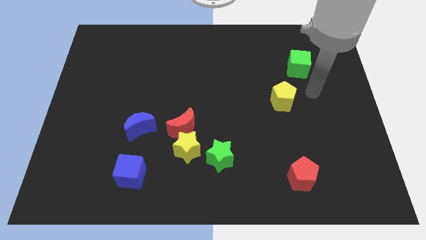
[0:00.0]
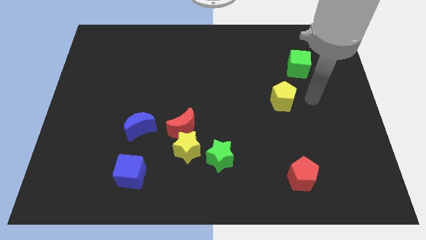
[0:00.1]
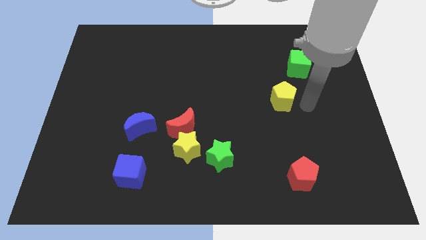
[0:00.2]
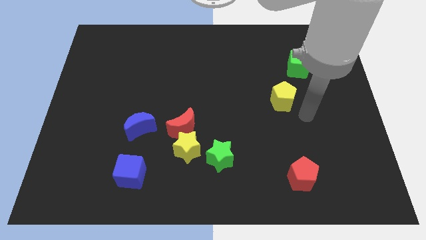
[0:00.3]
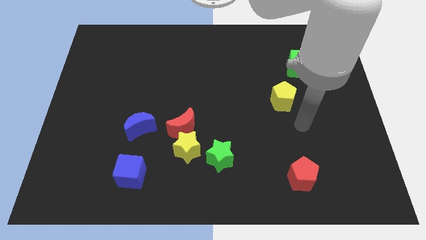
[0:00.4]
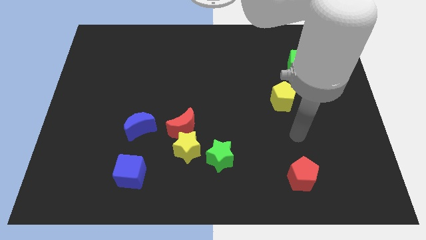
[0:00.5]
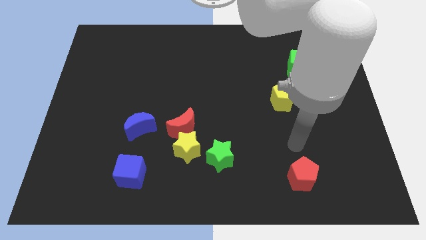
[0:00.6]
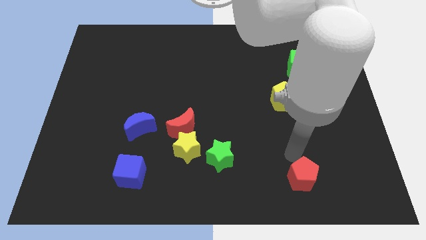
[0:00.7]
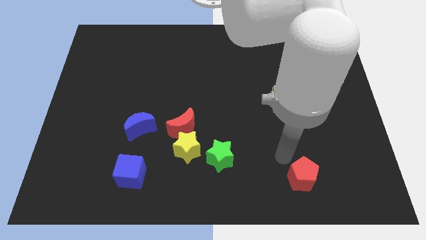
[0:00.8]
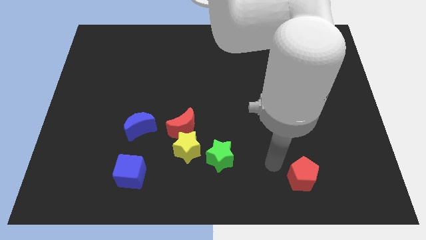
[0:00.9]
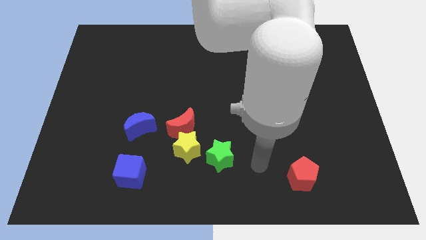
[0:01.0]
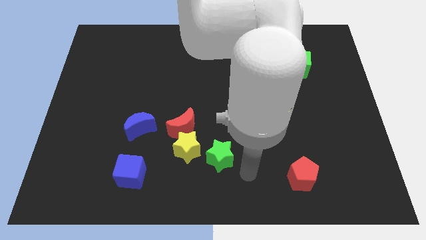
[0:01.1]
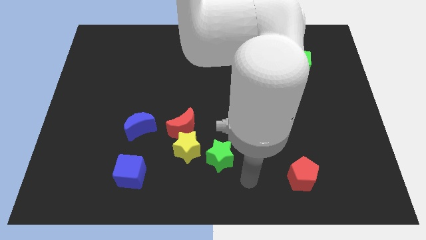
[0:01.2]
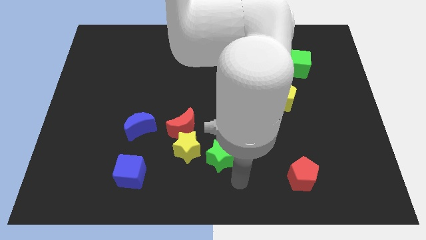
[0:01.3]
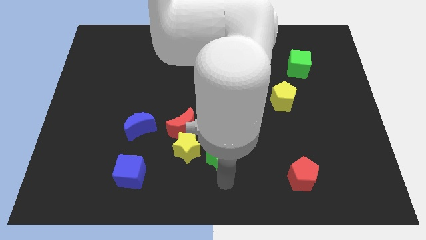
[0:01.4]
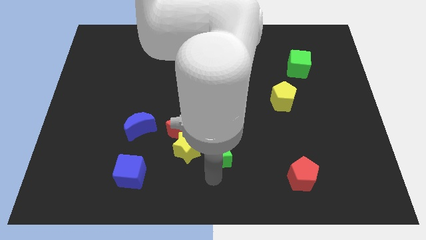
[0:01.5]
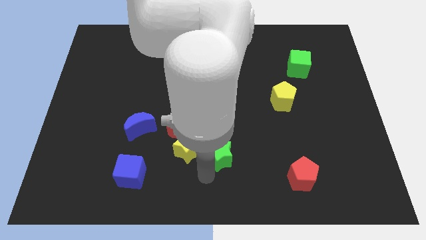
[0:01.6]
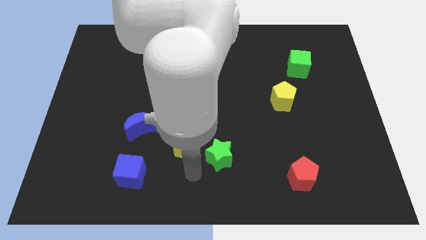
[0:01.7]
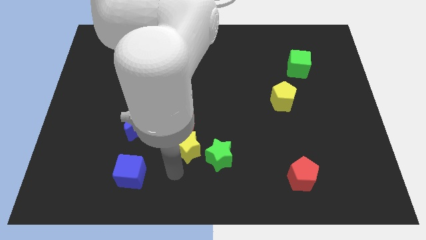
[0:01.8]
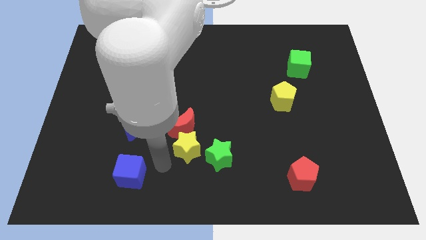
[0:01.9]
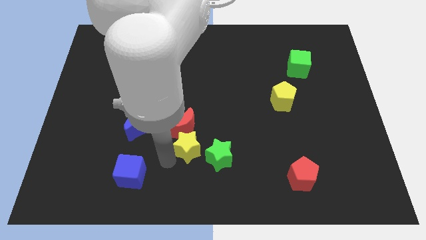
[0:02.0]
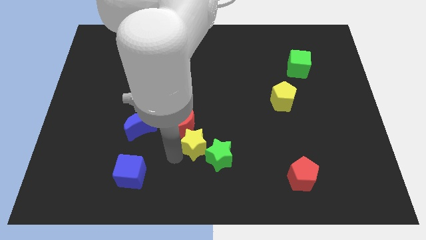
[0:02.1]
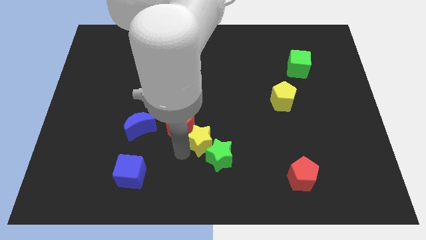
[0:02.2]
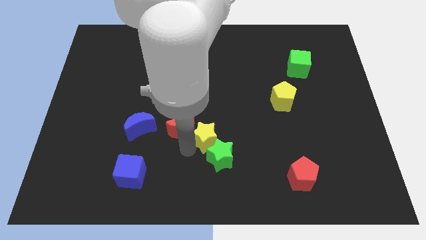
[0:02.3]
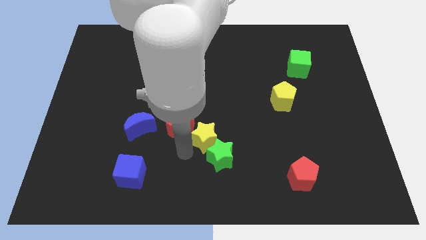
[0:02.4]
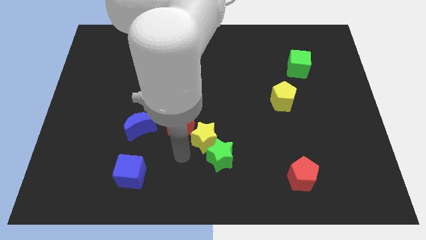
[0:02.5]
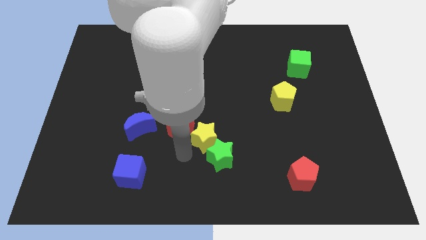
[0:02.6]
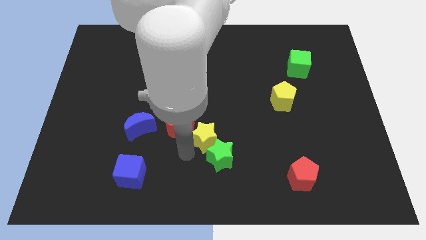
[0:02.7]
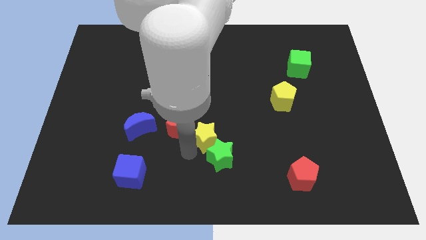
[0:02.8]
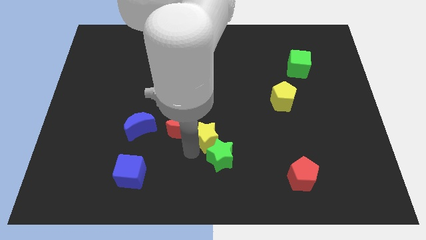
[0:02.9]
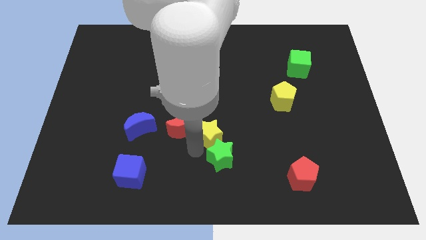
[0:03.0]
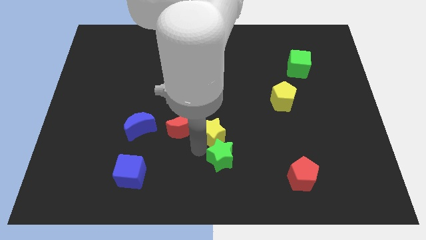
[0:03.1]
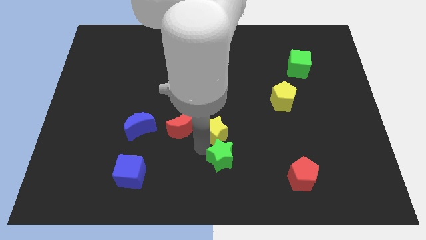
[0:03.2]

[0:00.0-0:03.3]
move the yellow star upwards and right slightly

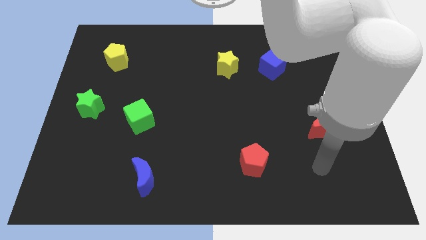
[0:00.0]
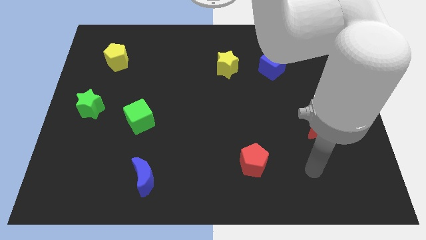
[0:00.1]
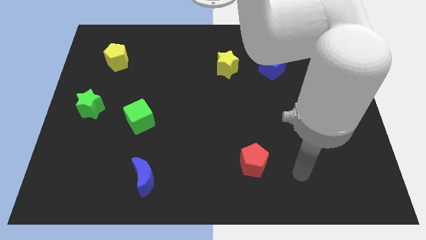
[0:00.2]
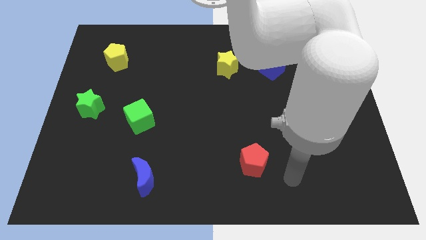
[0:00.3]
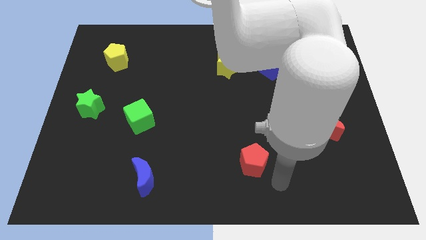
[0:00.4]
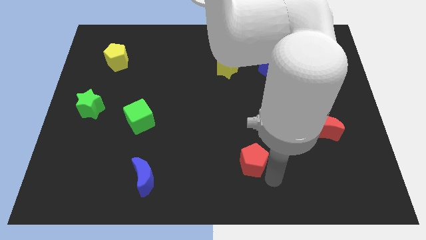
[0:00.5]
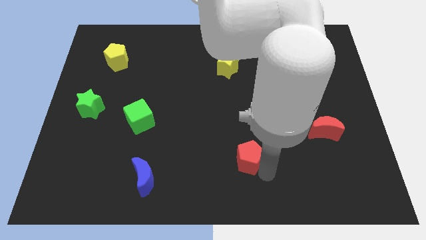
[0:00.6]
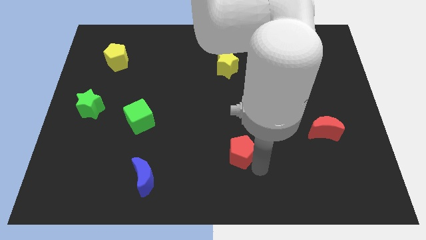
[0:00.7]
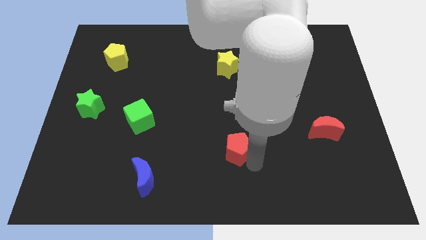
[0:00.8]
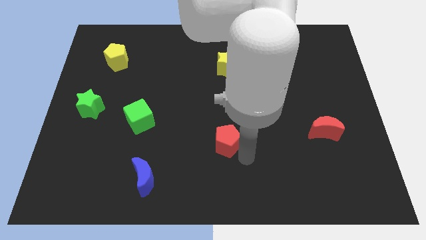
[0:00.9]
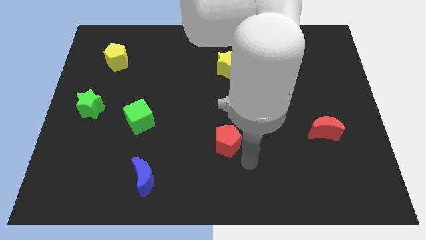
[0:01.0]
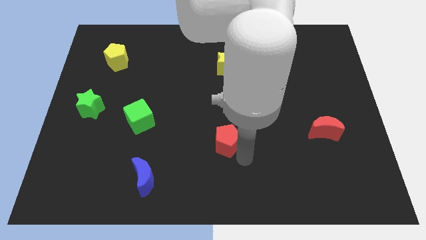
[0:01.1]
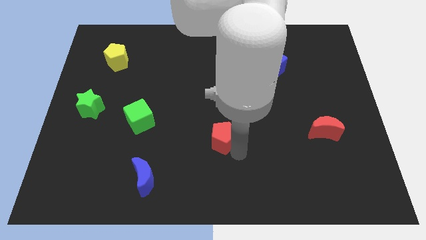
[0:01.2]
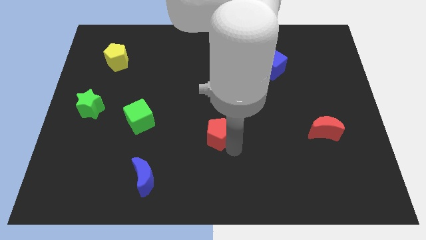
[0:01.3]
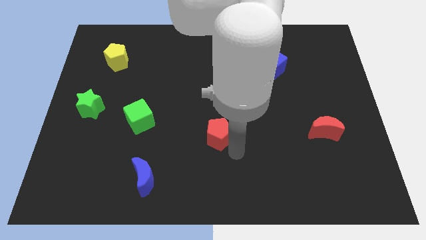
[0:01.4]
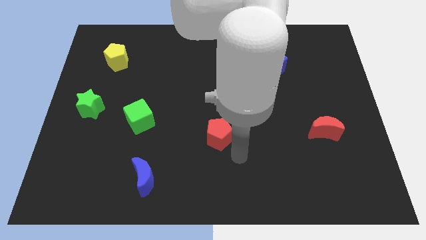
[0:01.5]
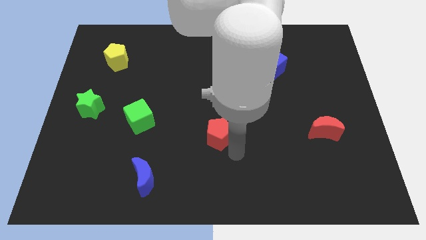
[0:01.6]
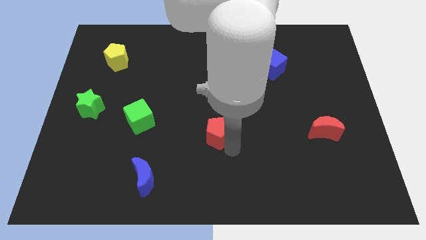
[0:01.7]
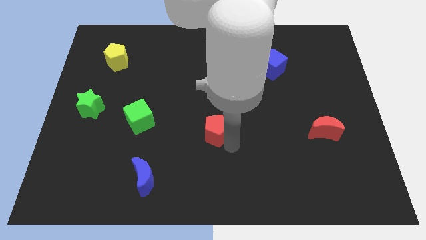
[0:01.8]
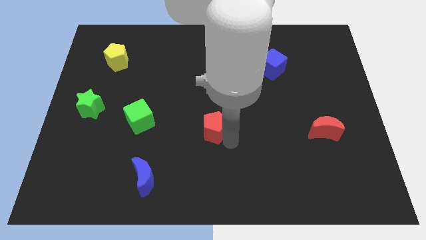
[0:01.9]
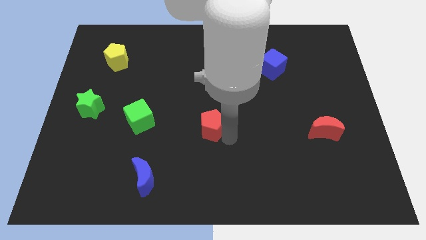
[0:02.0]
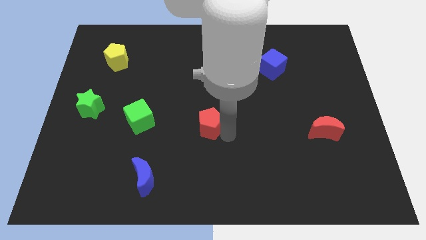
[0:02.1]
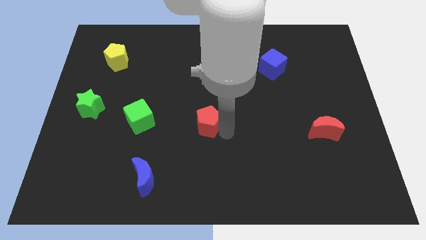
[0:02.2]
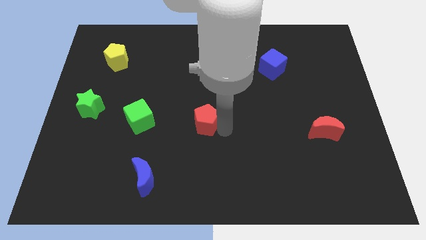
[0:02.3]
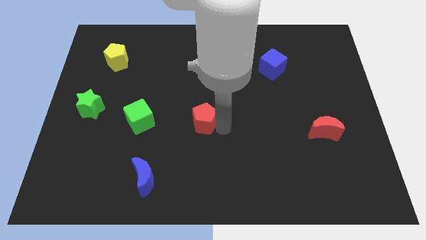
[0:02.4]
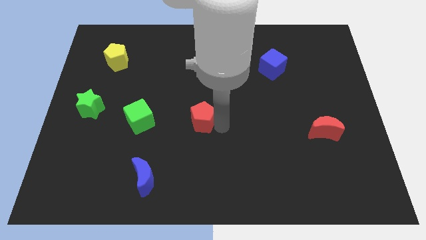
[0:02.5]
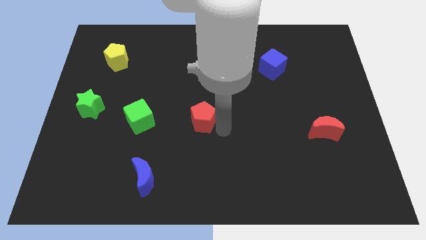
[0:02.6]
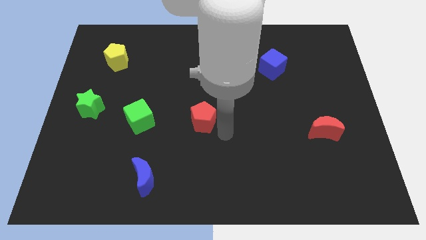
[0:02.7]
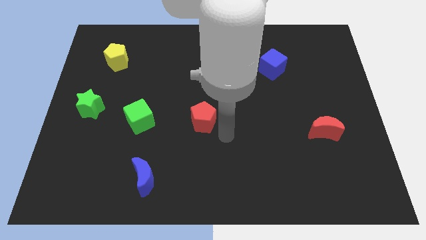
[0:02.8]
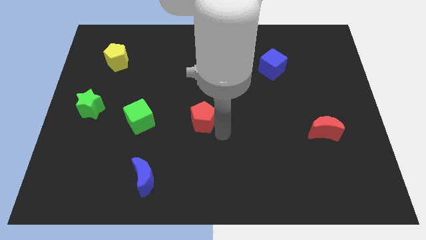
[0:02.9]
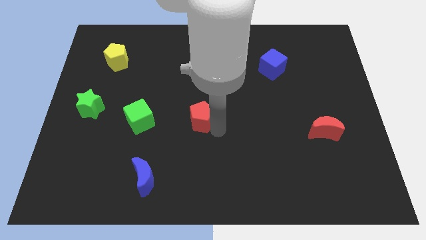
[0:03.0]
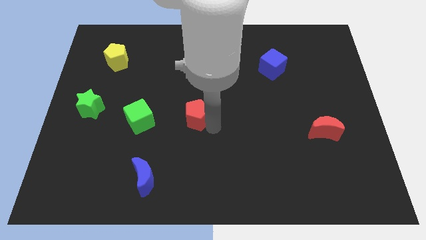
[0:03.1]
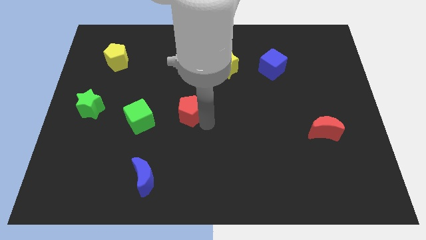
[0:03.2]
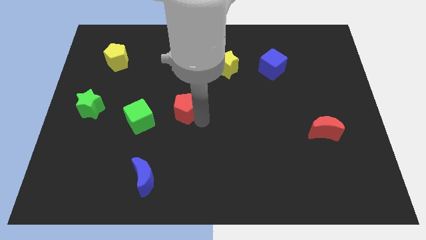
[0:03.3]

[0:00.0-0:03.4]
slide the red pentagon upwards and to the left

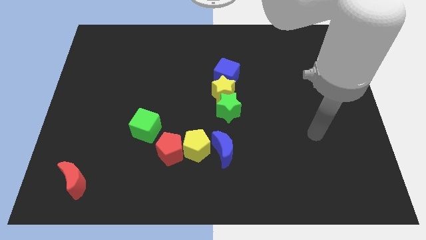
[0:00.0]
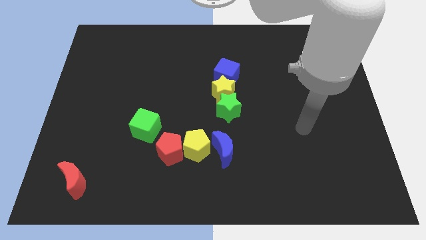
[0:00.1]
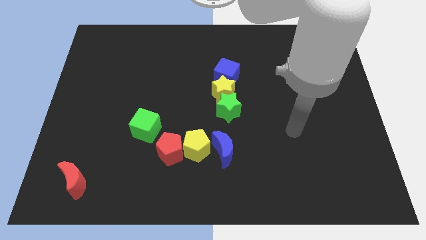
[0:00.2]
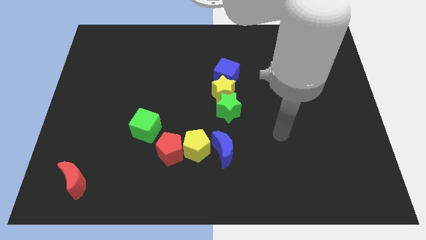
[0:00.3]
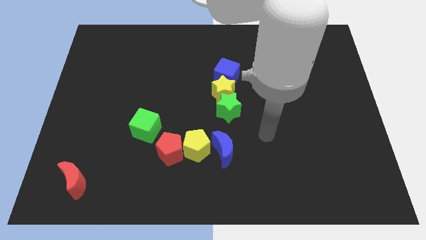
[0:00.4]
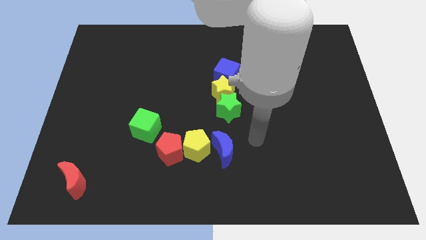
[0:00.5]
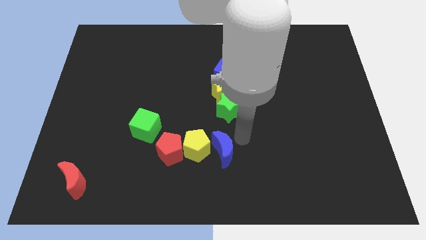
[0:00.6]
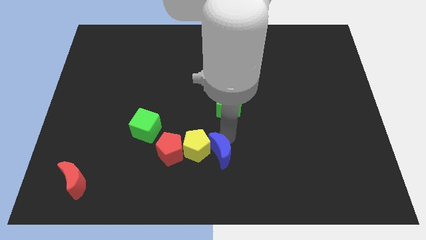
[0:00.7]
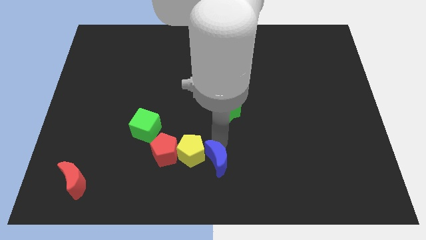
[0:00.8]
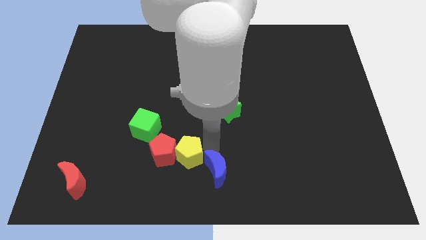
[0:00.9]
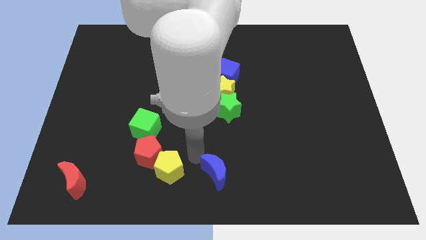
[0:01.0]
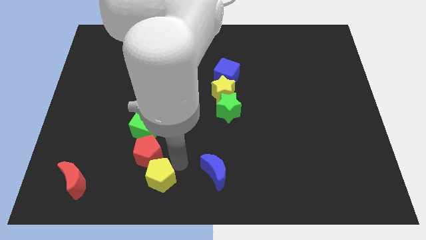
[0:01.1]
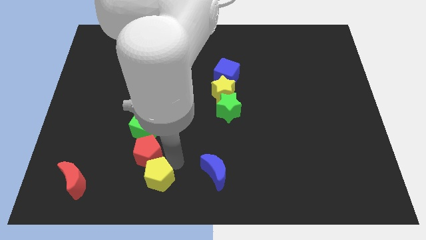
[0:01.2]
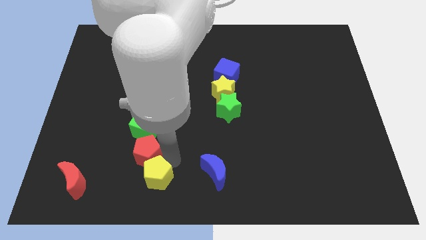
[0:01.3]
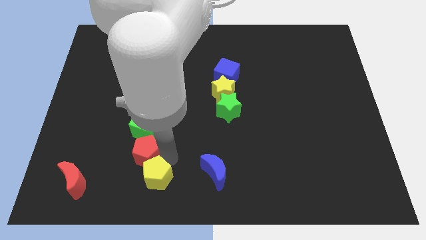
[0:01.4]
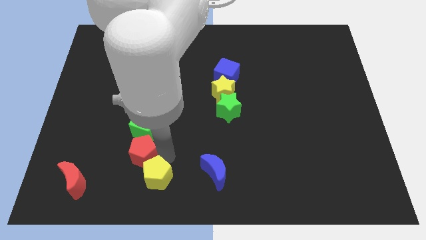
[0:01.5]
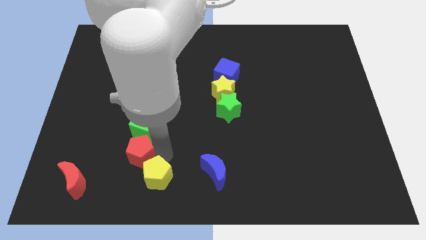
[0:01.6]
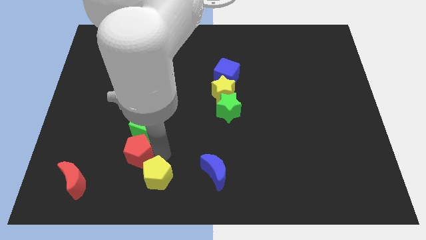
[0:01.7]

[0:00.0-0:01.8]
slightly push the red pentagon to the left

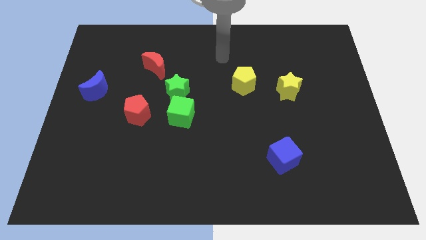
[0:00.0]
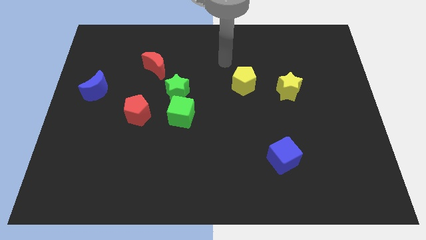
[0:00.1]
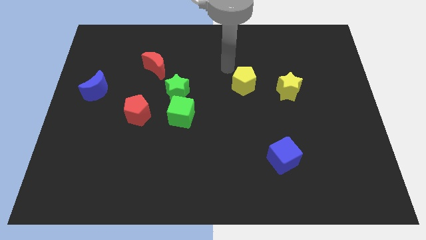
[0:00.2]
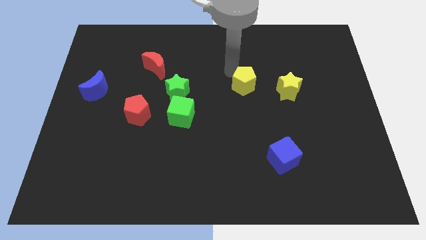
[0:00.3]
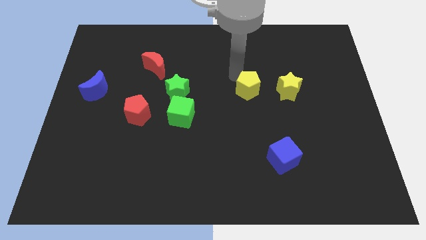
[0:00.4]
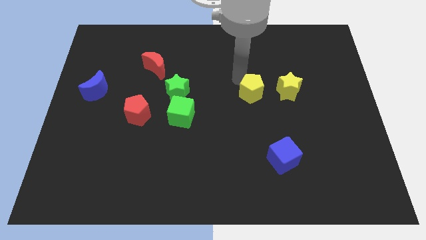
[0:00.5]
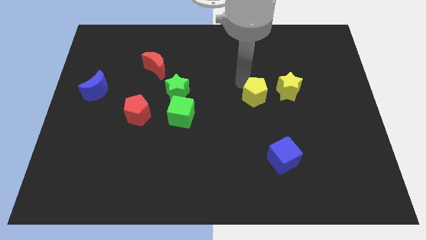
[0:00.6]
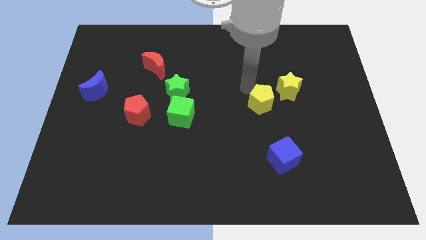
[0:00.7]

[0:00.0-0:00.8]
slide the yellow pentagon a bit downwards and to the right diagonally
